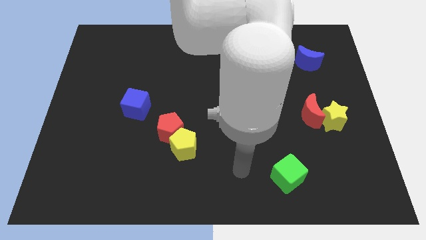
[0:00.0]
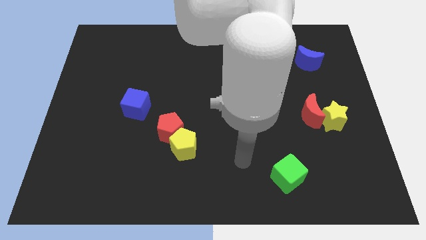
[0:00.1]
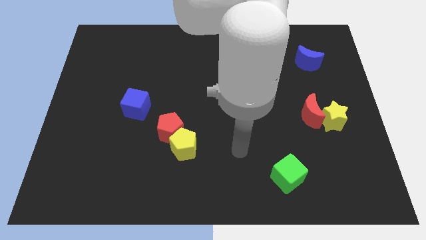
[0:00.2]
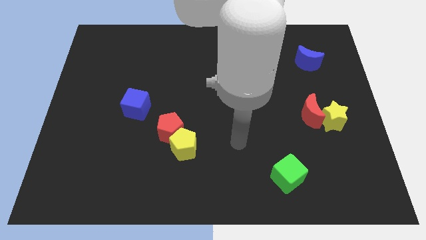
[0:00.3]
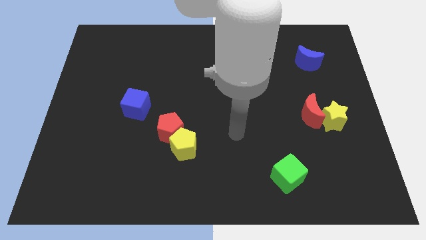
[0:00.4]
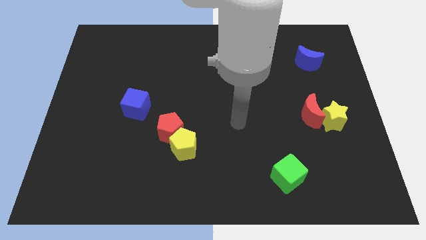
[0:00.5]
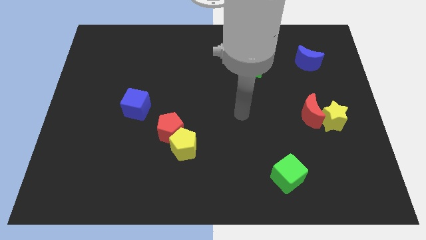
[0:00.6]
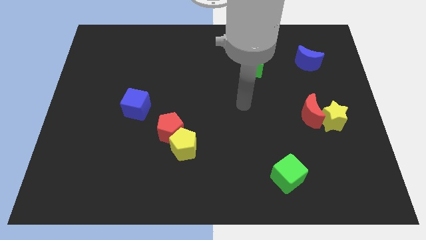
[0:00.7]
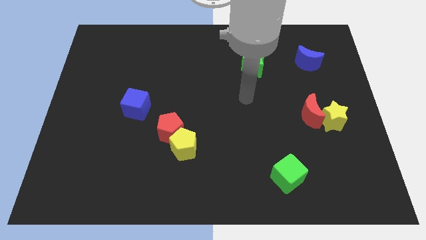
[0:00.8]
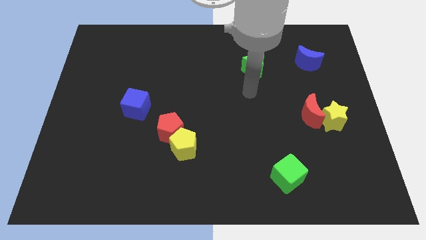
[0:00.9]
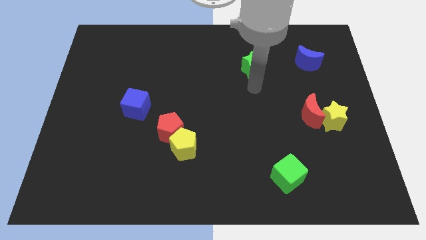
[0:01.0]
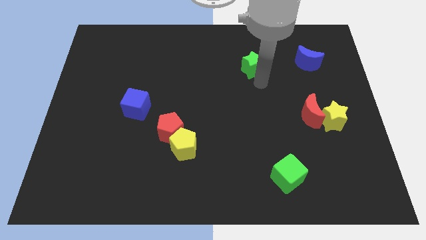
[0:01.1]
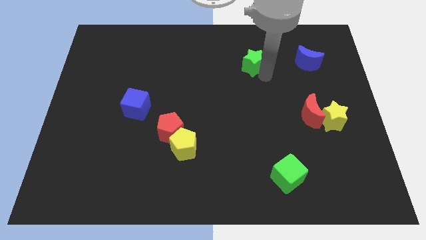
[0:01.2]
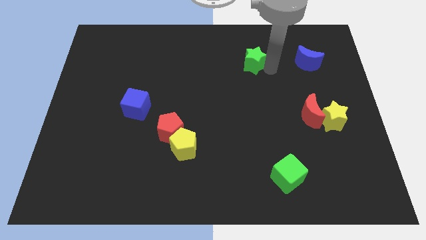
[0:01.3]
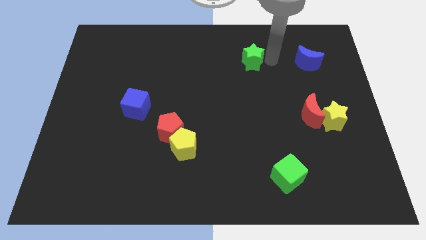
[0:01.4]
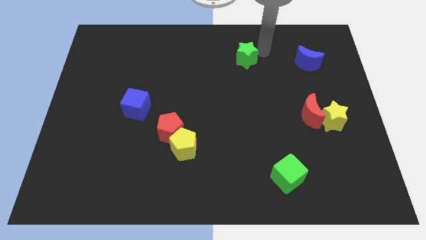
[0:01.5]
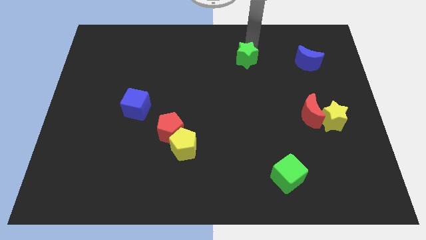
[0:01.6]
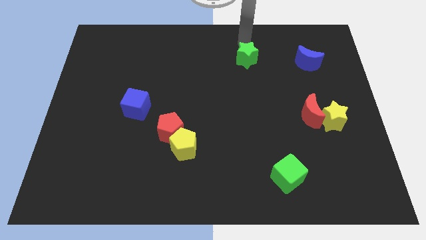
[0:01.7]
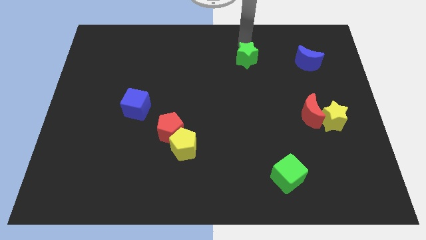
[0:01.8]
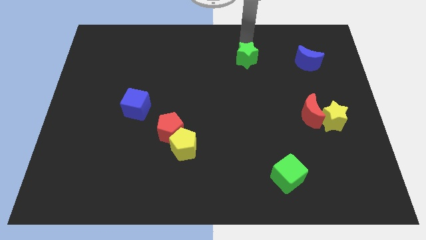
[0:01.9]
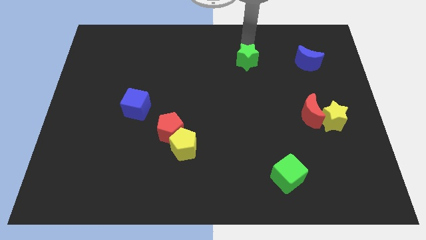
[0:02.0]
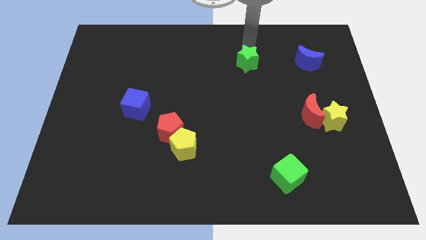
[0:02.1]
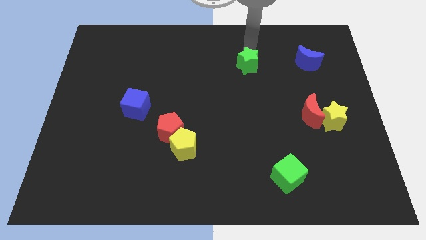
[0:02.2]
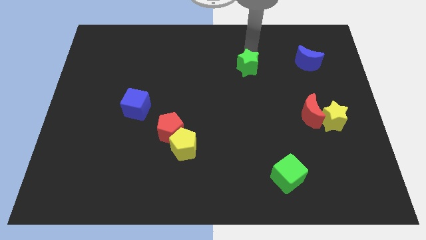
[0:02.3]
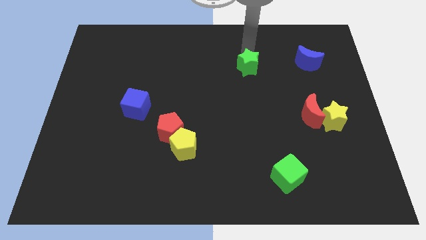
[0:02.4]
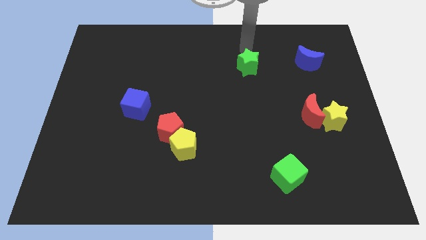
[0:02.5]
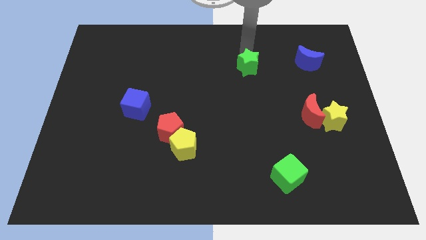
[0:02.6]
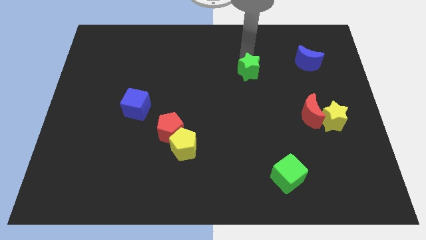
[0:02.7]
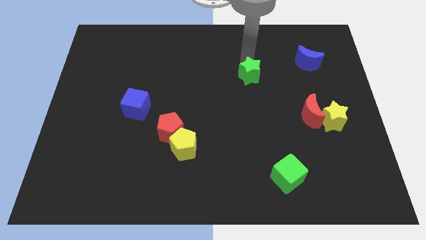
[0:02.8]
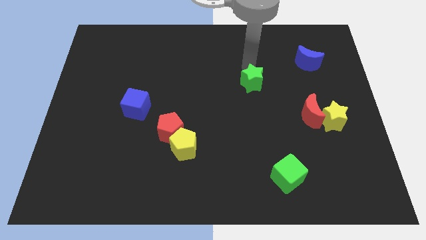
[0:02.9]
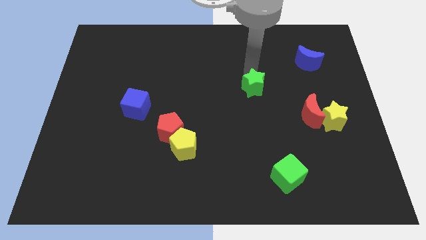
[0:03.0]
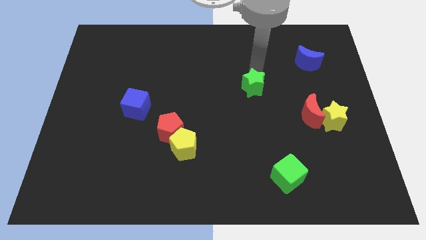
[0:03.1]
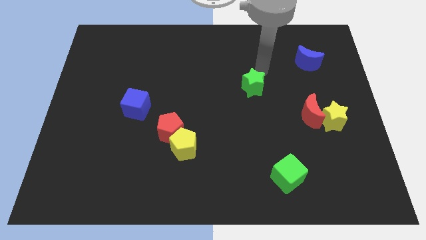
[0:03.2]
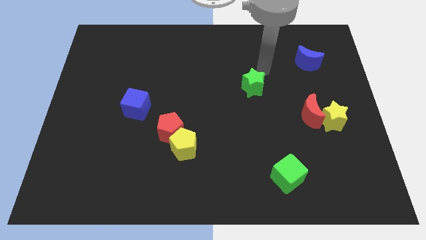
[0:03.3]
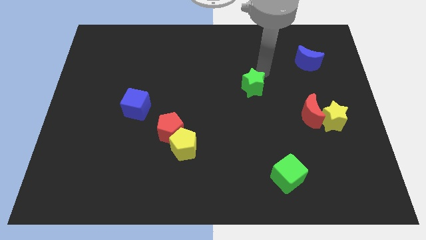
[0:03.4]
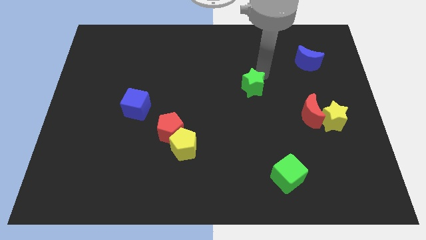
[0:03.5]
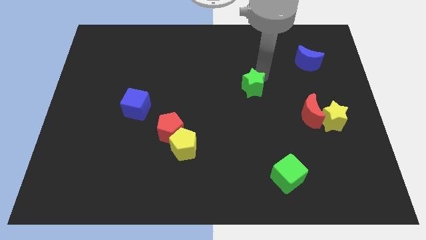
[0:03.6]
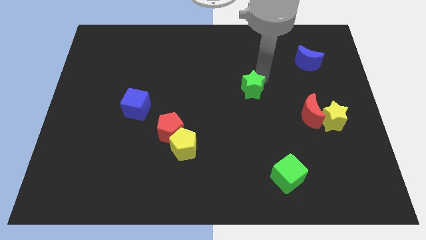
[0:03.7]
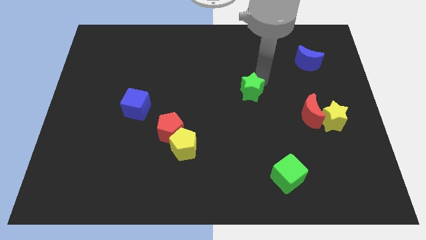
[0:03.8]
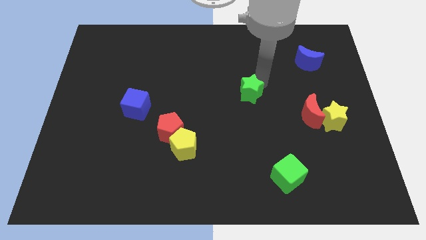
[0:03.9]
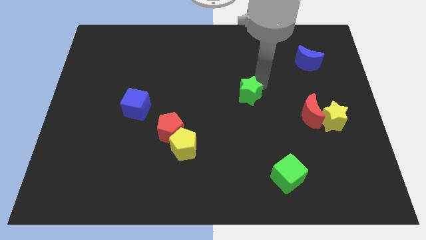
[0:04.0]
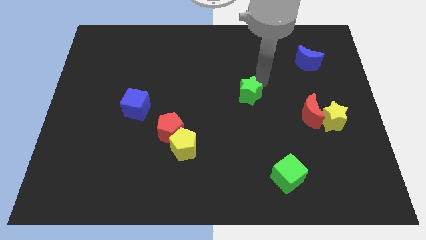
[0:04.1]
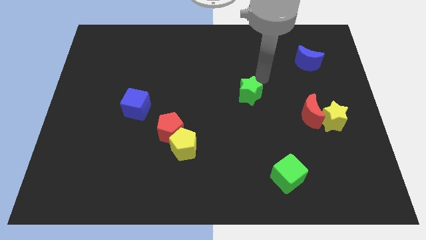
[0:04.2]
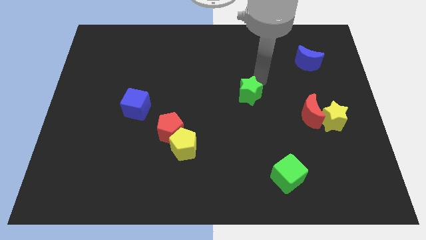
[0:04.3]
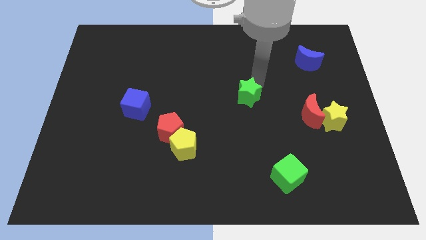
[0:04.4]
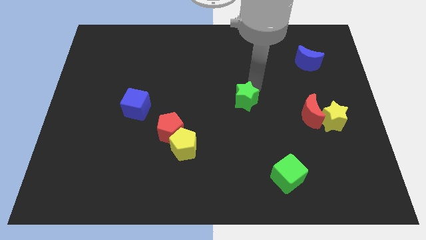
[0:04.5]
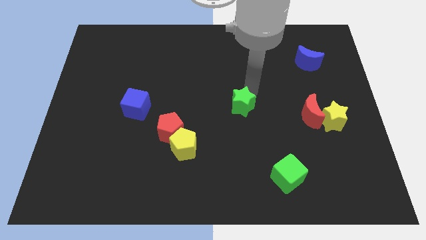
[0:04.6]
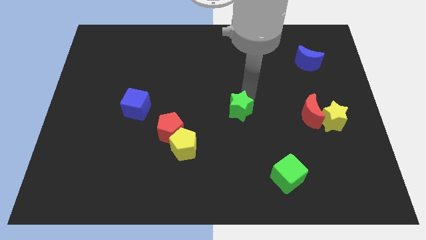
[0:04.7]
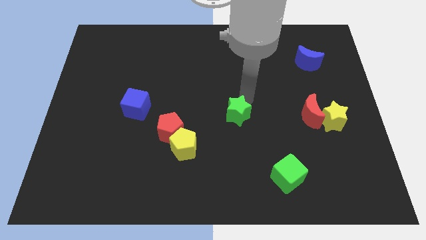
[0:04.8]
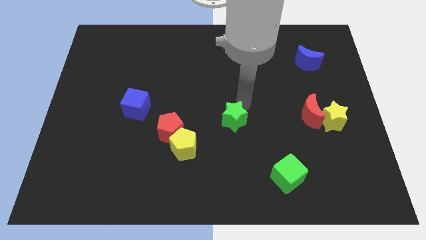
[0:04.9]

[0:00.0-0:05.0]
put the green star to the right of the red pentagon

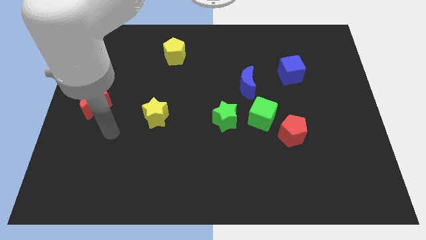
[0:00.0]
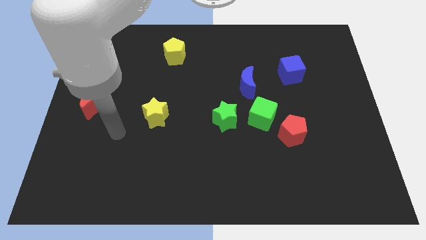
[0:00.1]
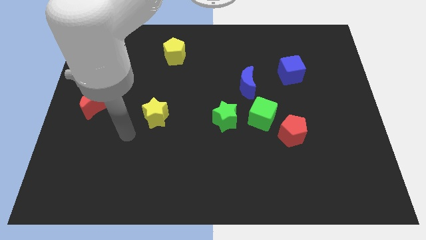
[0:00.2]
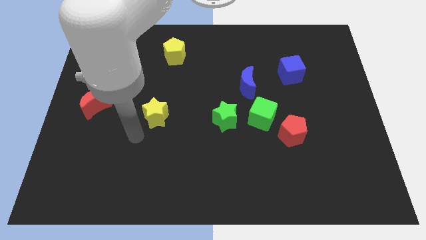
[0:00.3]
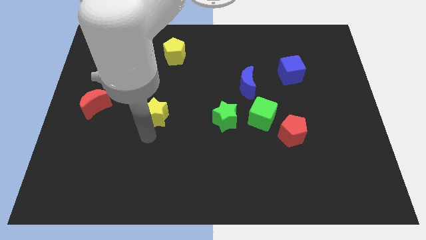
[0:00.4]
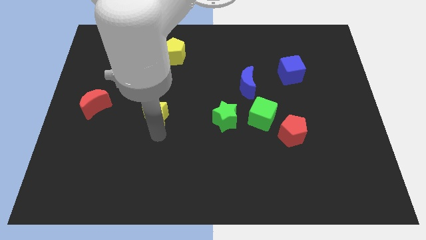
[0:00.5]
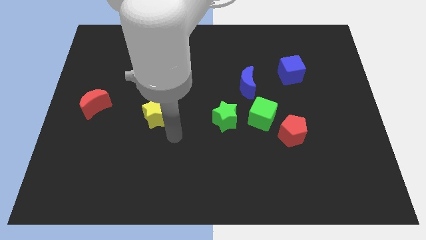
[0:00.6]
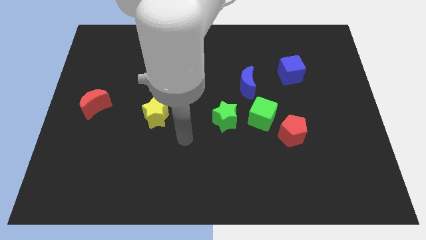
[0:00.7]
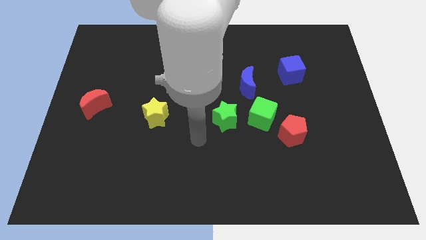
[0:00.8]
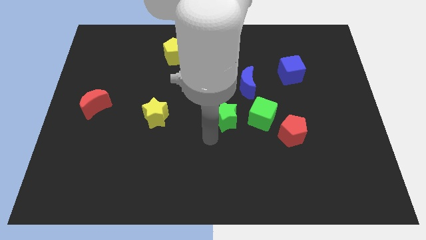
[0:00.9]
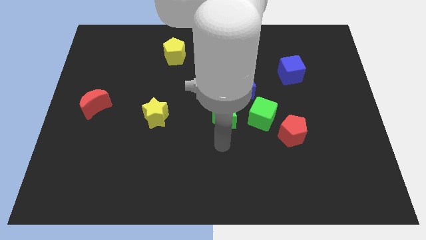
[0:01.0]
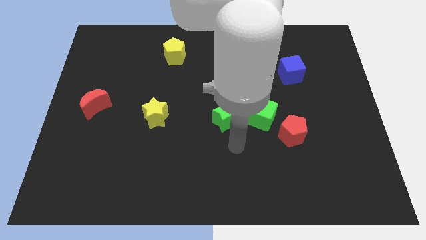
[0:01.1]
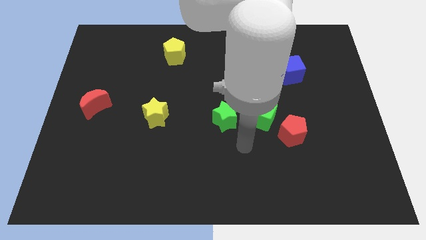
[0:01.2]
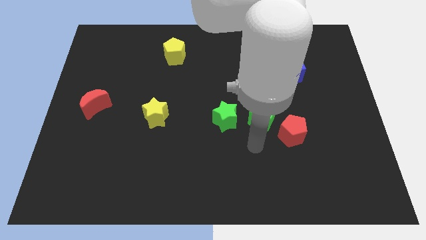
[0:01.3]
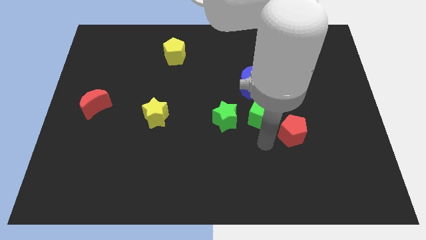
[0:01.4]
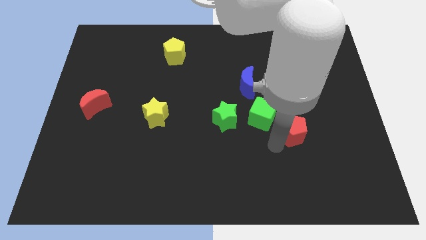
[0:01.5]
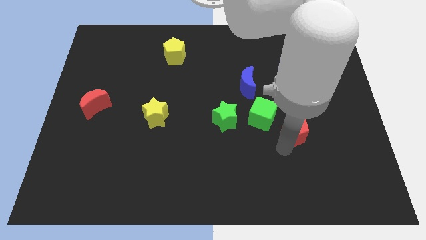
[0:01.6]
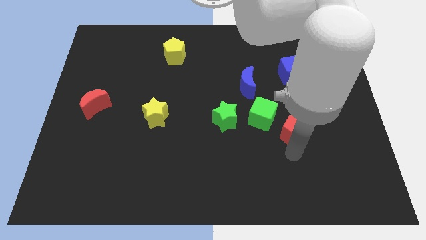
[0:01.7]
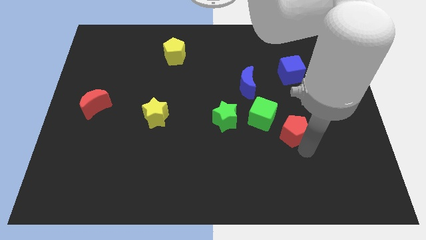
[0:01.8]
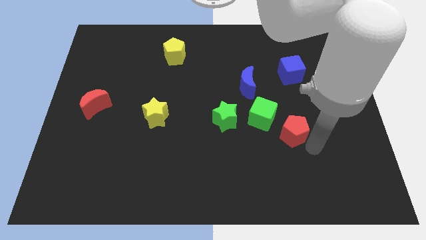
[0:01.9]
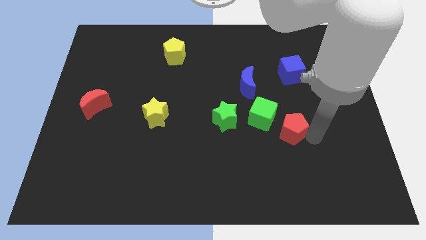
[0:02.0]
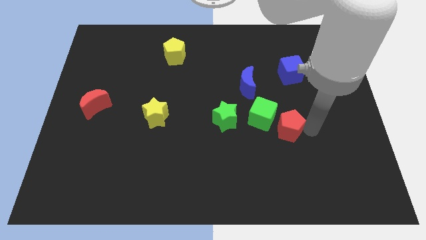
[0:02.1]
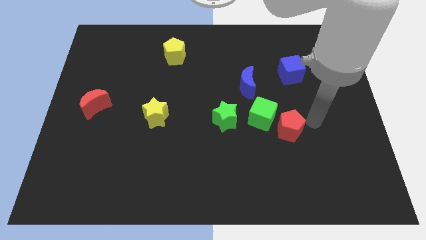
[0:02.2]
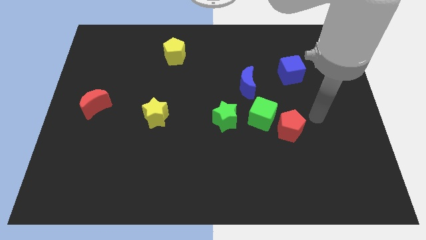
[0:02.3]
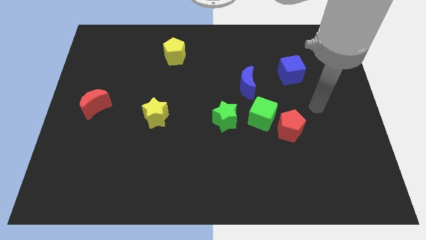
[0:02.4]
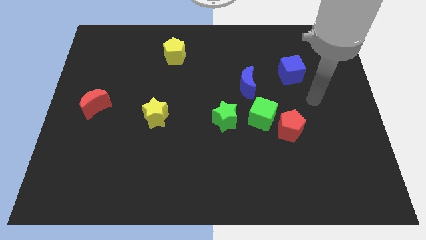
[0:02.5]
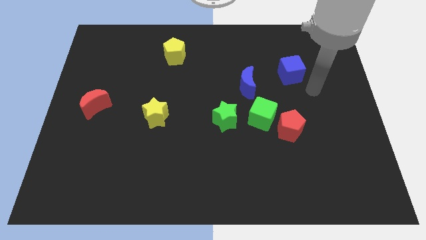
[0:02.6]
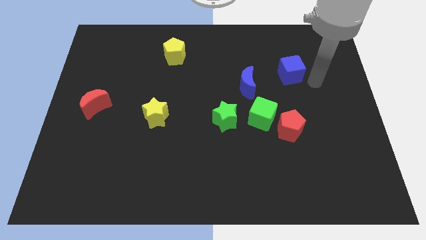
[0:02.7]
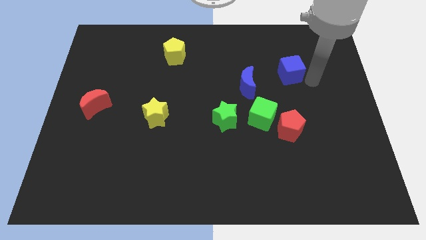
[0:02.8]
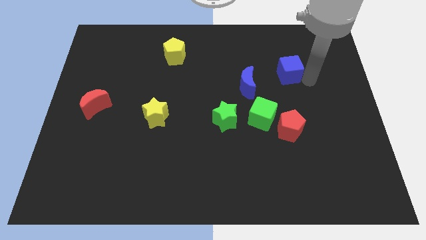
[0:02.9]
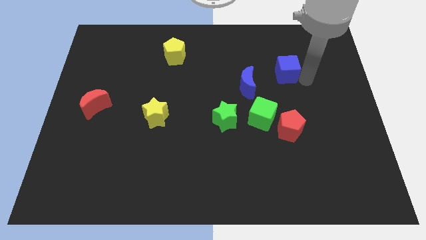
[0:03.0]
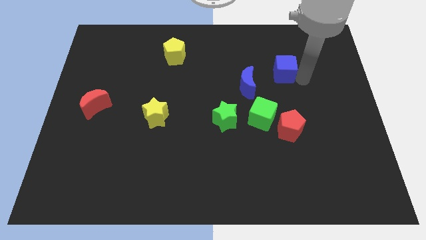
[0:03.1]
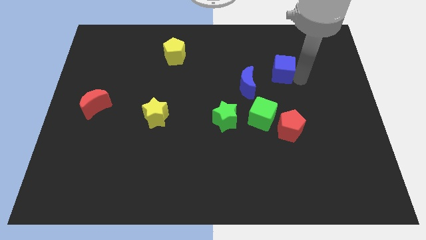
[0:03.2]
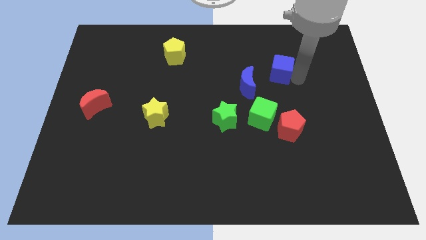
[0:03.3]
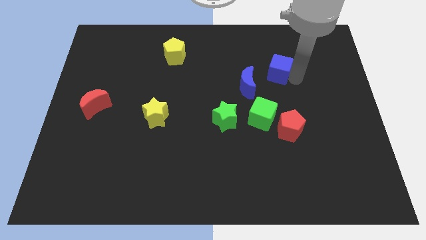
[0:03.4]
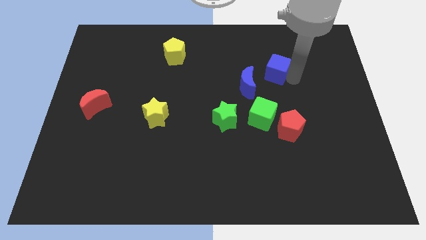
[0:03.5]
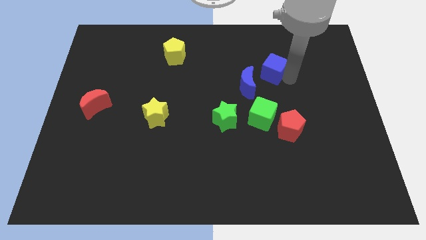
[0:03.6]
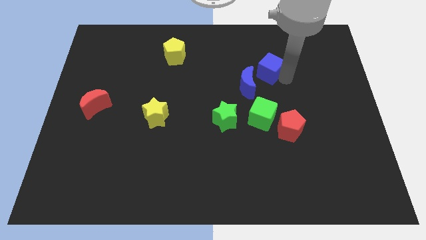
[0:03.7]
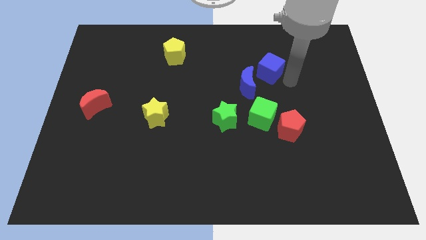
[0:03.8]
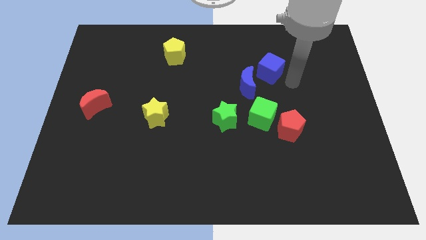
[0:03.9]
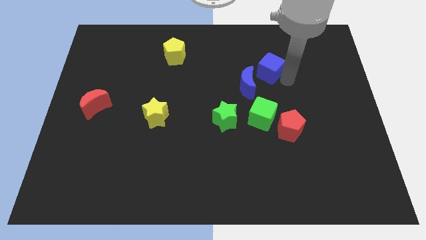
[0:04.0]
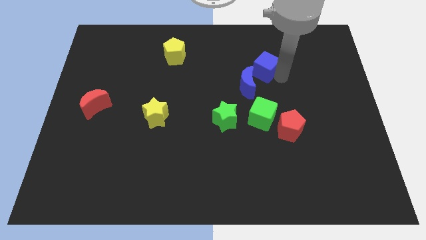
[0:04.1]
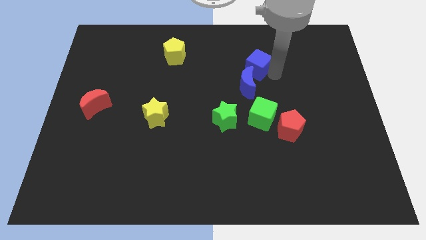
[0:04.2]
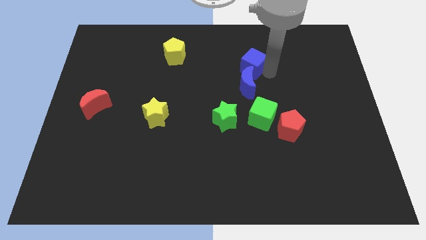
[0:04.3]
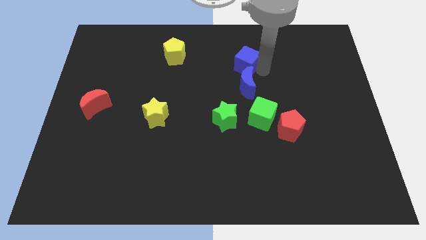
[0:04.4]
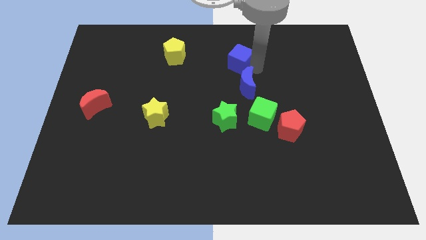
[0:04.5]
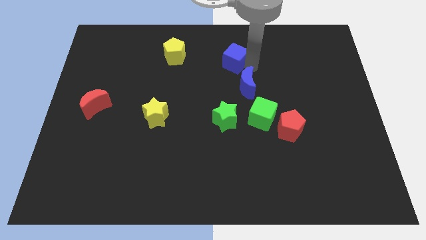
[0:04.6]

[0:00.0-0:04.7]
slide the blue cube just right of the yellow pentagon
